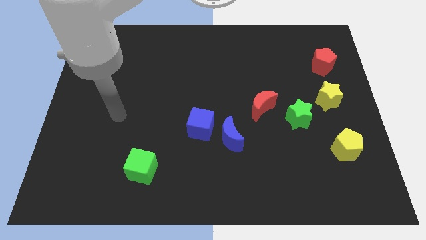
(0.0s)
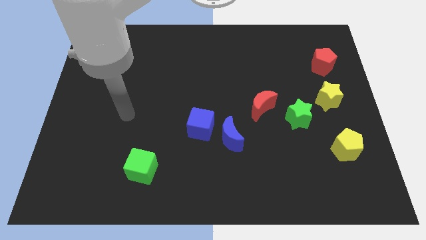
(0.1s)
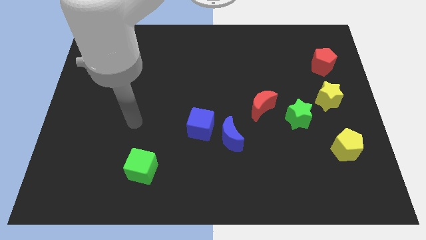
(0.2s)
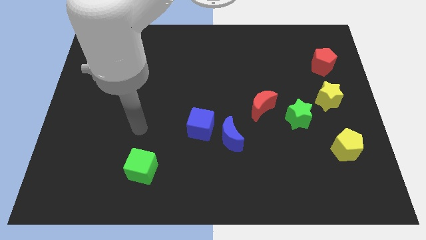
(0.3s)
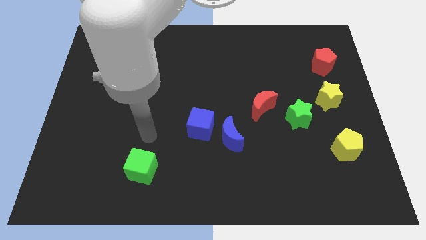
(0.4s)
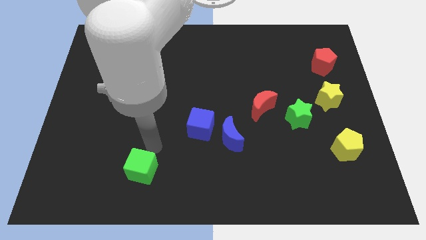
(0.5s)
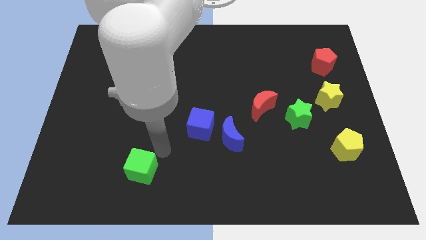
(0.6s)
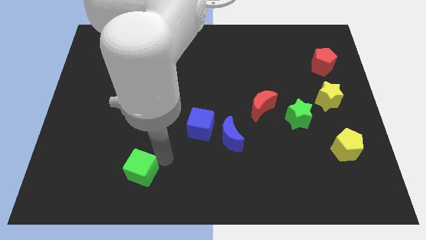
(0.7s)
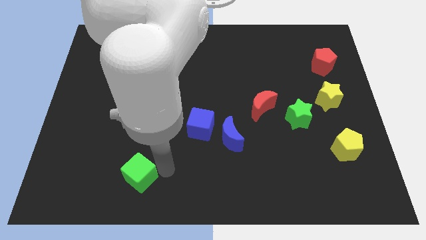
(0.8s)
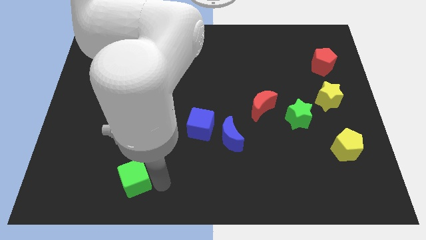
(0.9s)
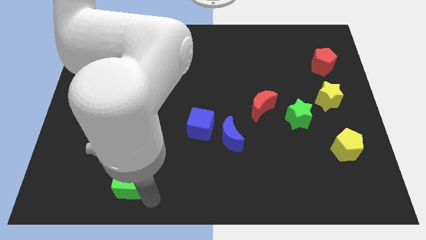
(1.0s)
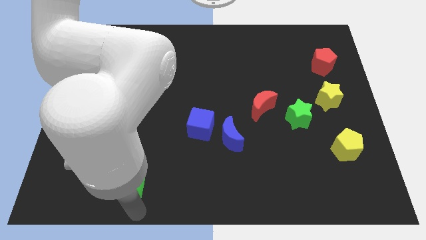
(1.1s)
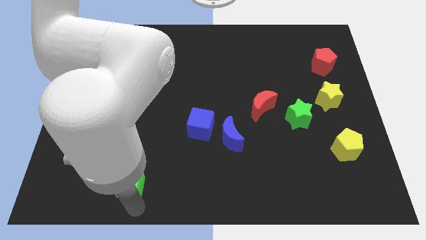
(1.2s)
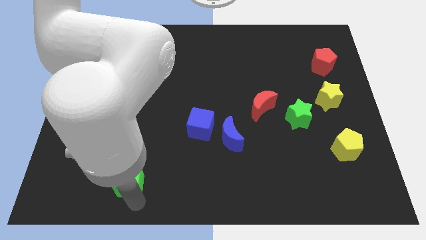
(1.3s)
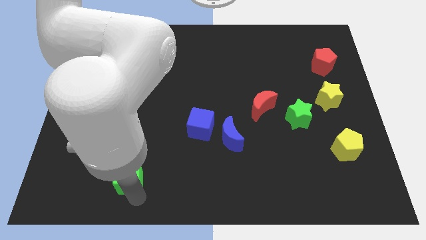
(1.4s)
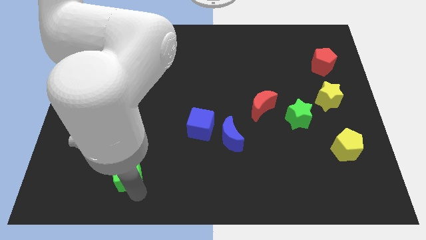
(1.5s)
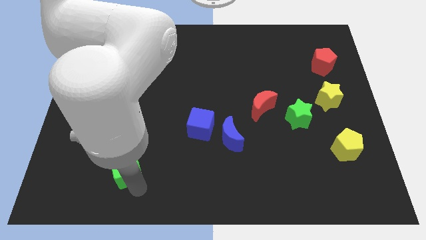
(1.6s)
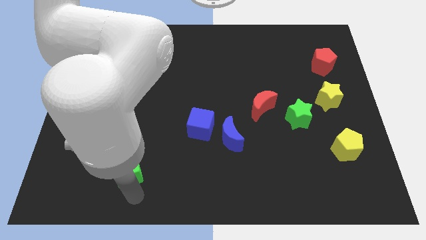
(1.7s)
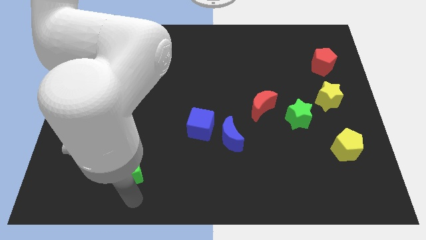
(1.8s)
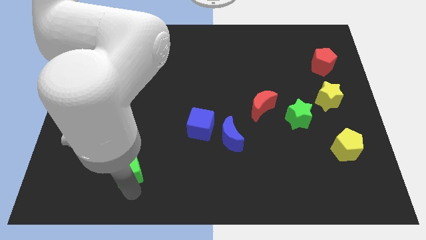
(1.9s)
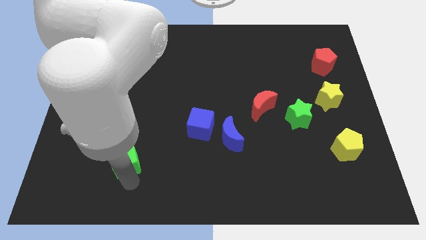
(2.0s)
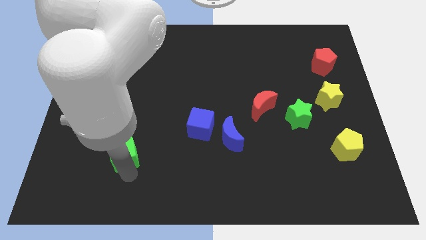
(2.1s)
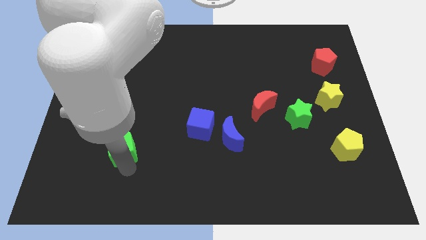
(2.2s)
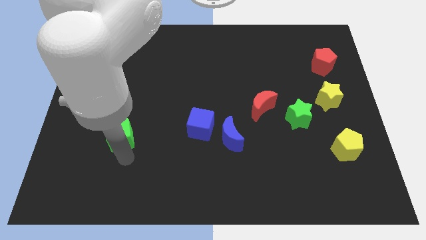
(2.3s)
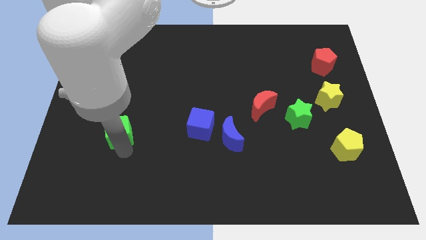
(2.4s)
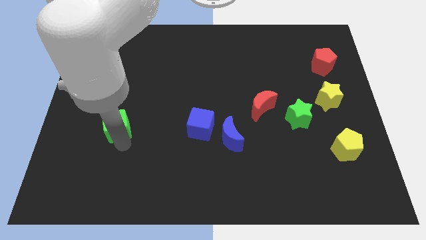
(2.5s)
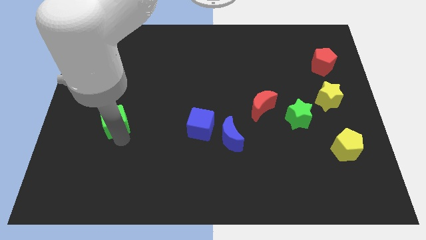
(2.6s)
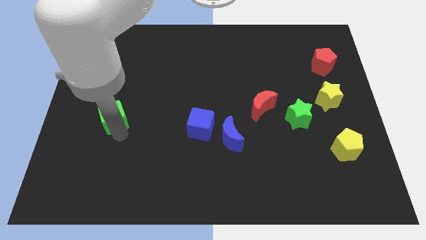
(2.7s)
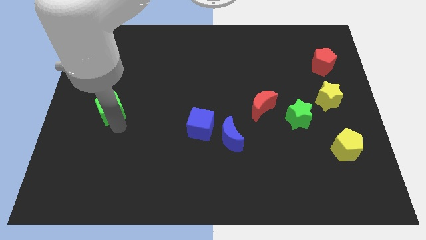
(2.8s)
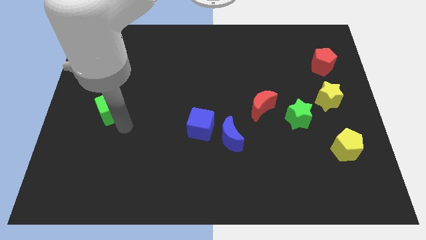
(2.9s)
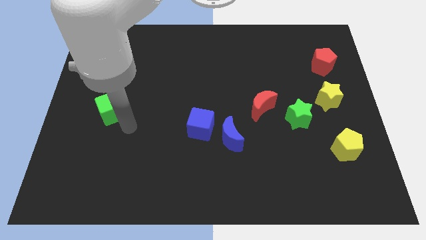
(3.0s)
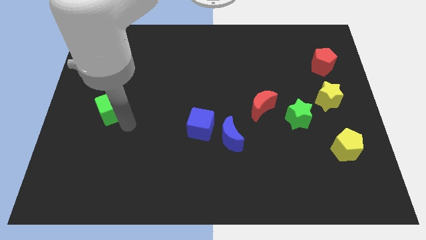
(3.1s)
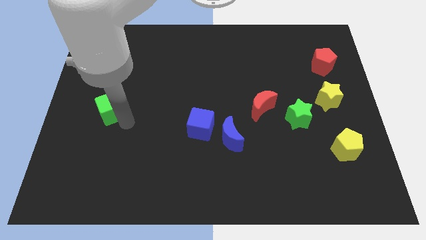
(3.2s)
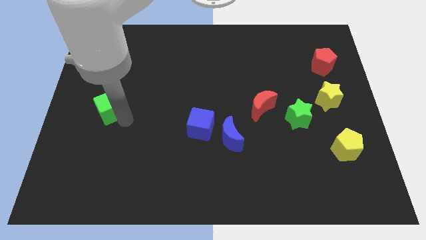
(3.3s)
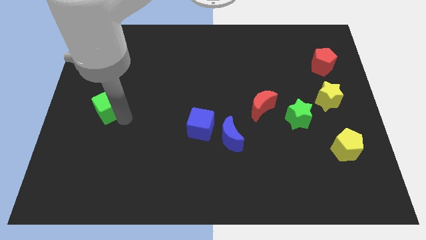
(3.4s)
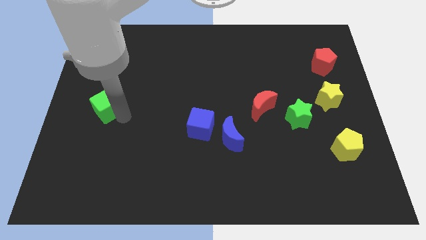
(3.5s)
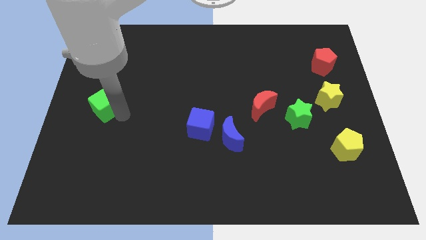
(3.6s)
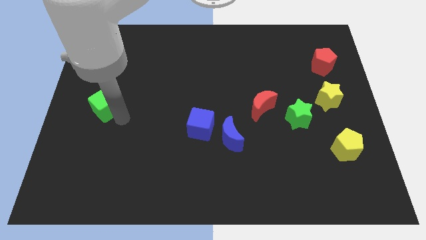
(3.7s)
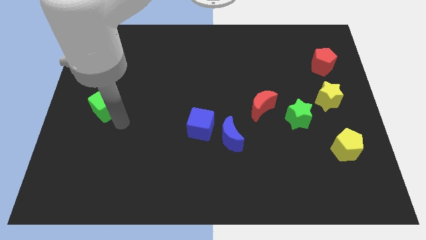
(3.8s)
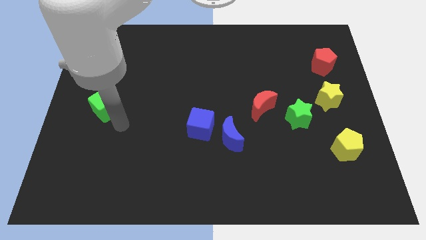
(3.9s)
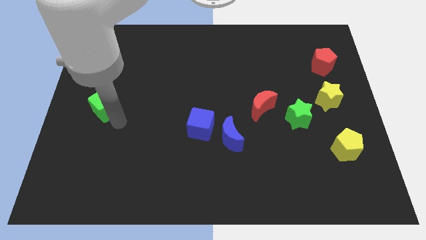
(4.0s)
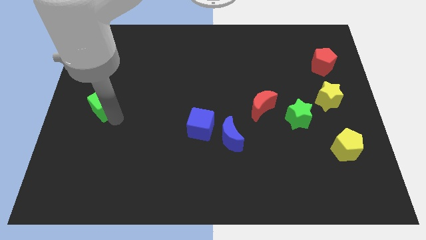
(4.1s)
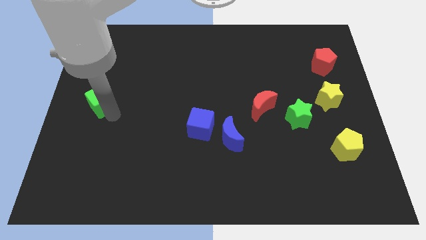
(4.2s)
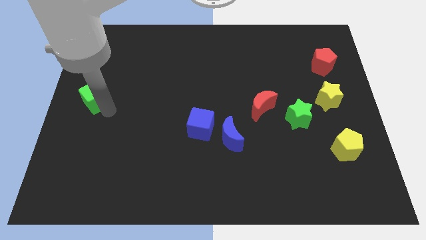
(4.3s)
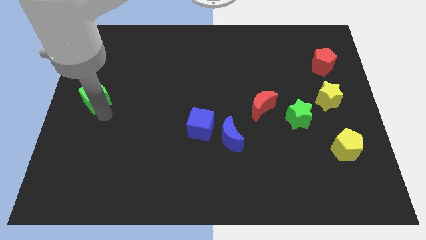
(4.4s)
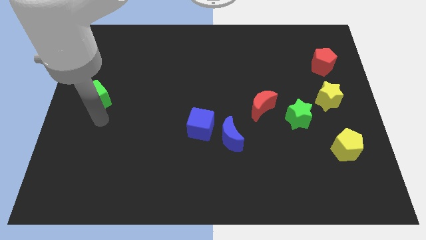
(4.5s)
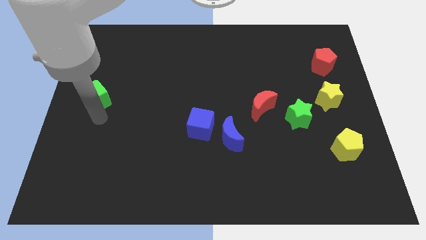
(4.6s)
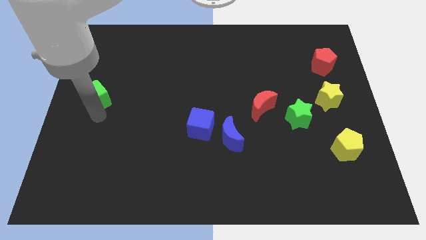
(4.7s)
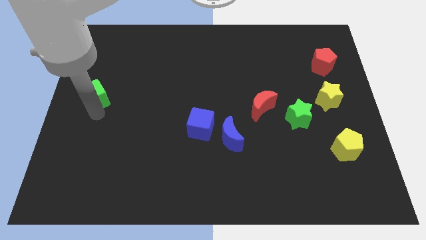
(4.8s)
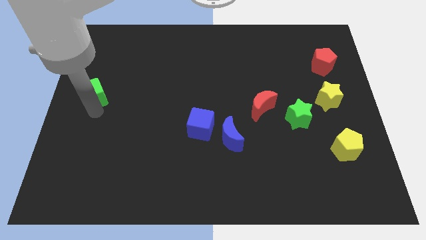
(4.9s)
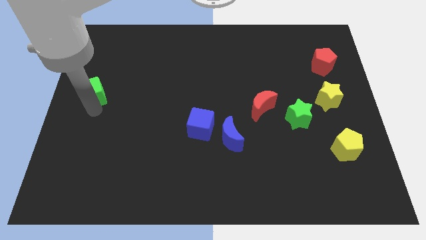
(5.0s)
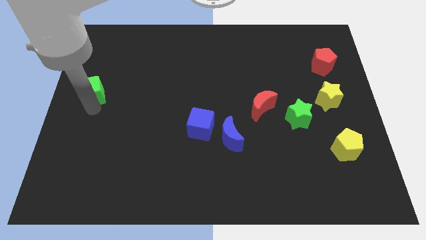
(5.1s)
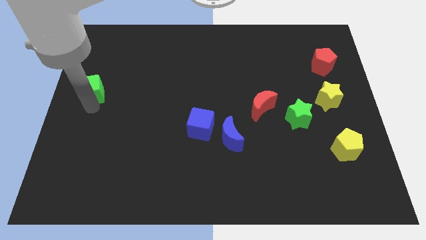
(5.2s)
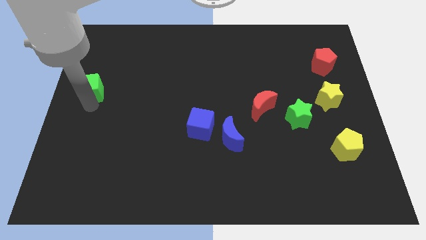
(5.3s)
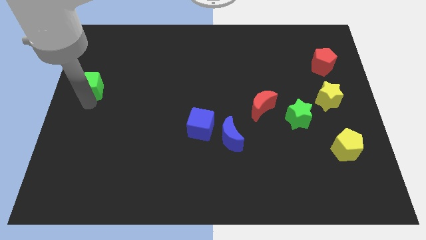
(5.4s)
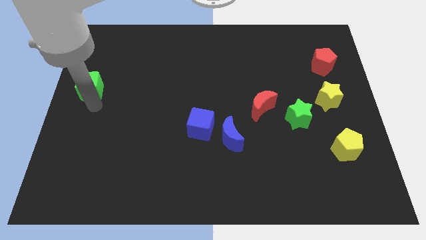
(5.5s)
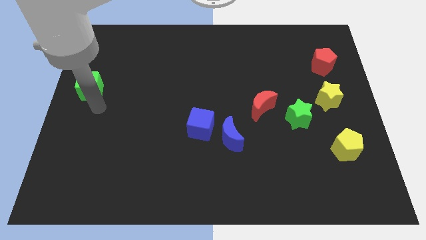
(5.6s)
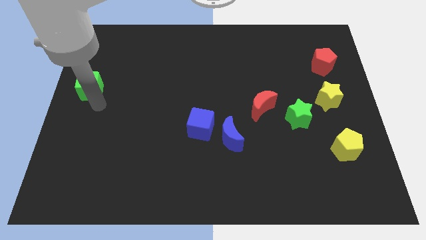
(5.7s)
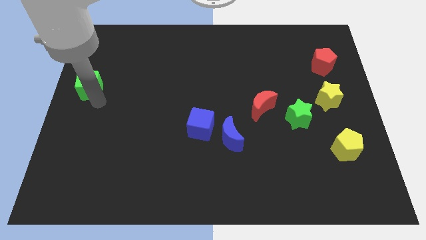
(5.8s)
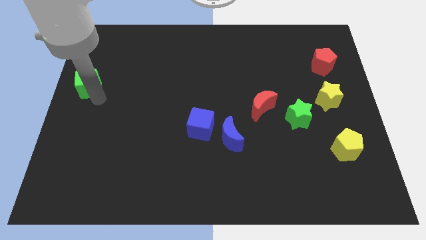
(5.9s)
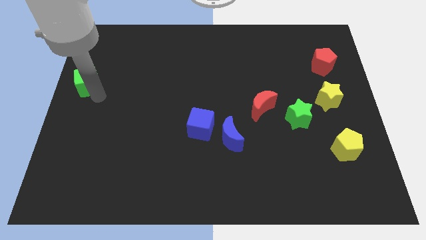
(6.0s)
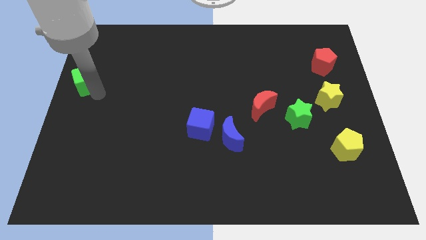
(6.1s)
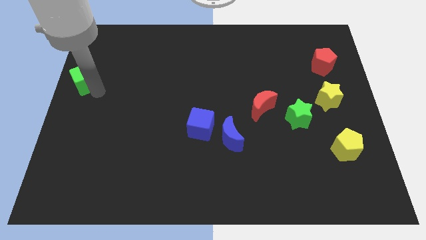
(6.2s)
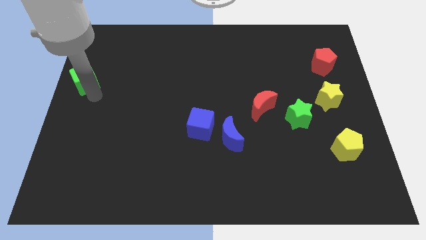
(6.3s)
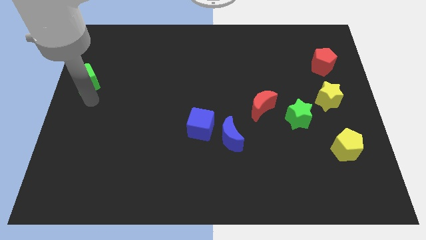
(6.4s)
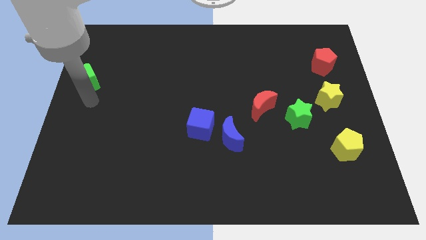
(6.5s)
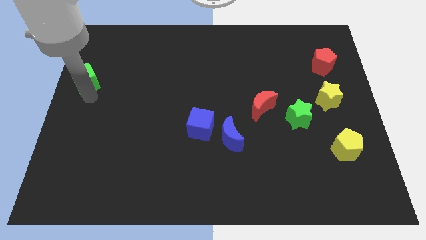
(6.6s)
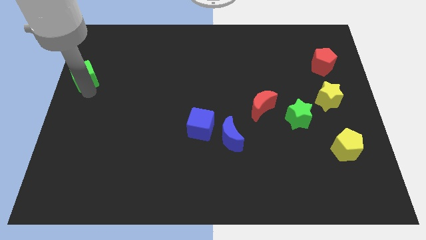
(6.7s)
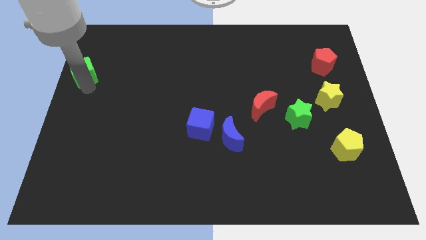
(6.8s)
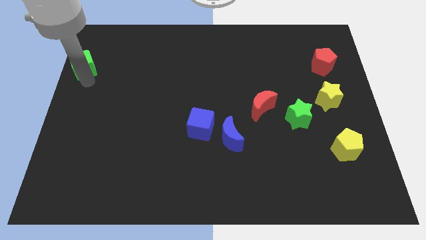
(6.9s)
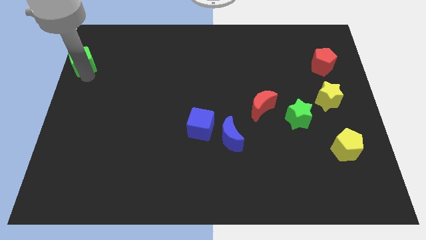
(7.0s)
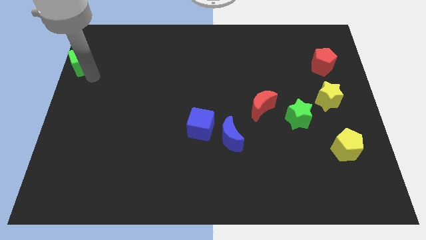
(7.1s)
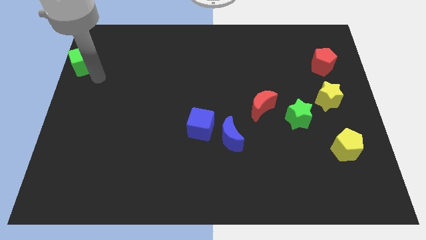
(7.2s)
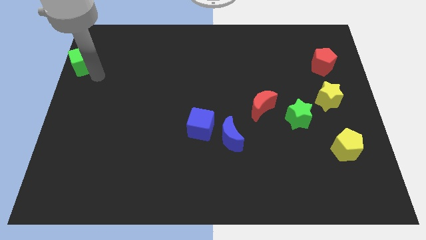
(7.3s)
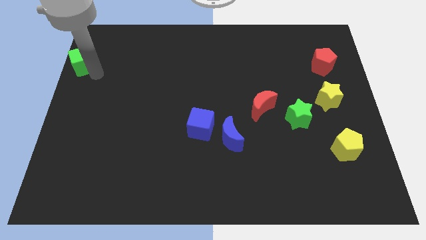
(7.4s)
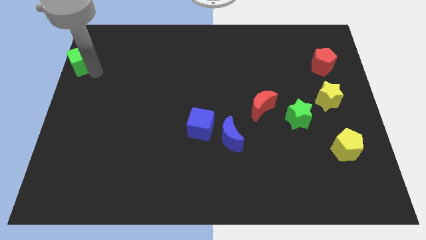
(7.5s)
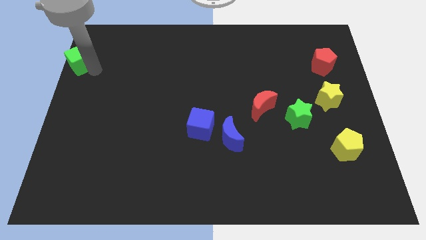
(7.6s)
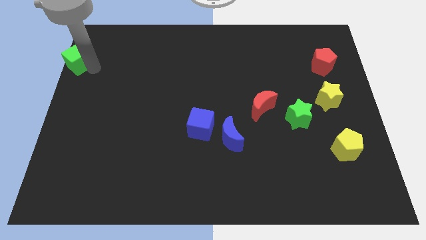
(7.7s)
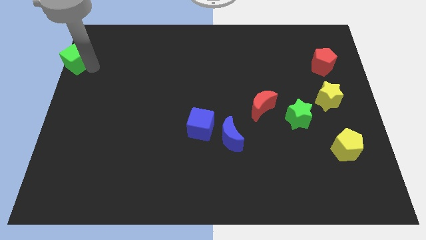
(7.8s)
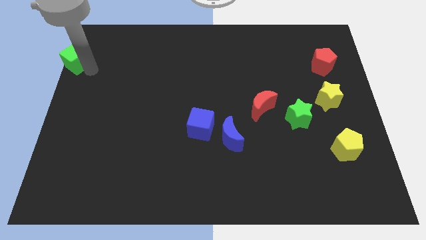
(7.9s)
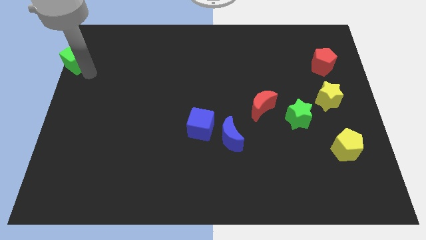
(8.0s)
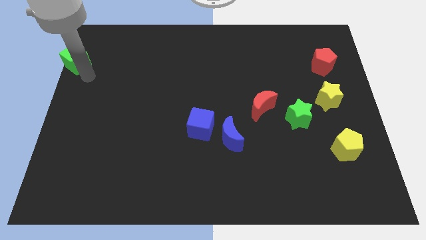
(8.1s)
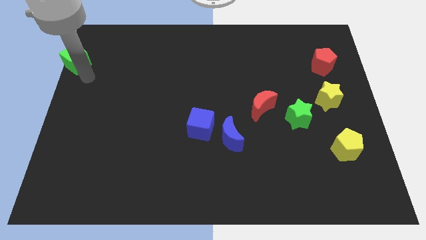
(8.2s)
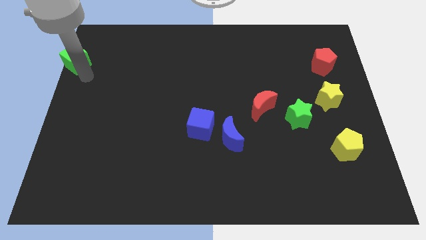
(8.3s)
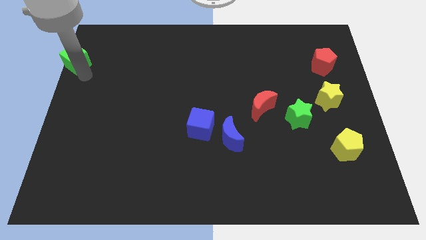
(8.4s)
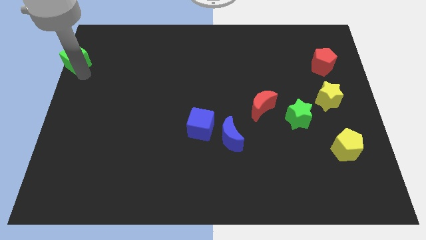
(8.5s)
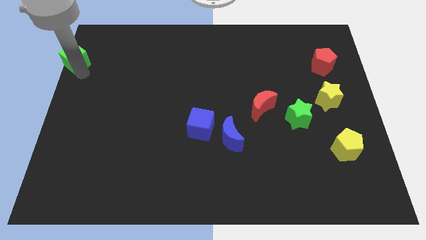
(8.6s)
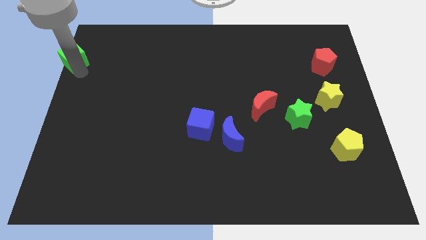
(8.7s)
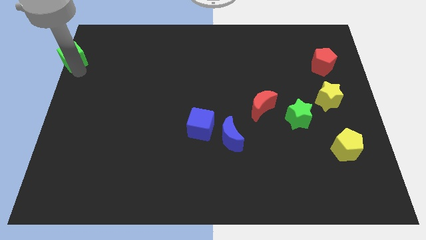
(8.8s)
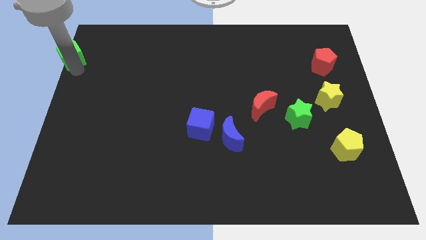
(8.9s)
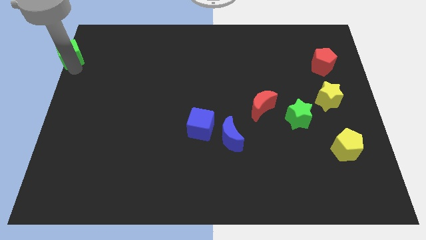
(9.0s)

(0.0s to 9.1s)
put the green cube to the top left of the board
